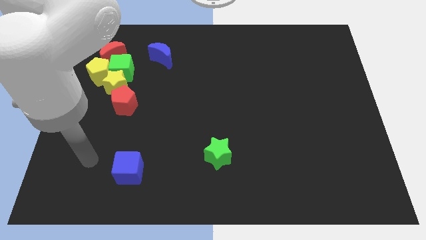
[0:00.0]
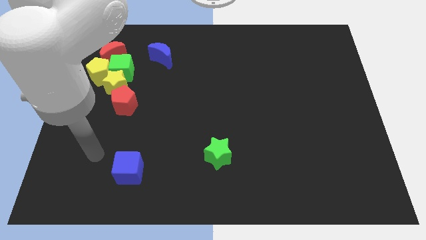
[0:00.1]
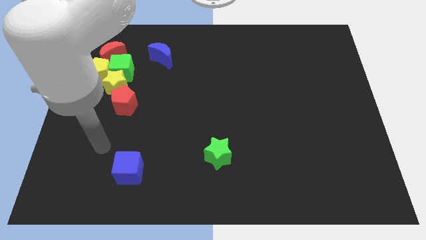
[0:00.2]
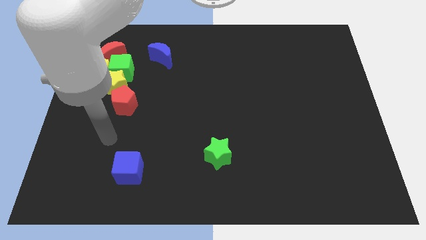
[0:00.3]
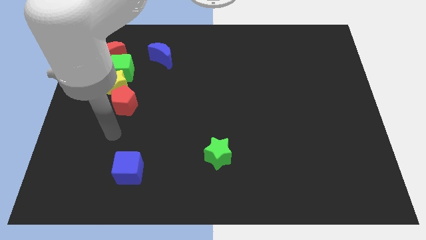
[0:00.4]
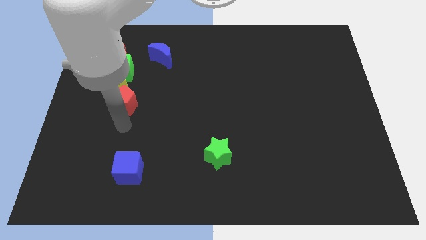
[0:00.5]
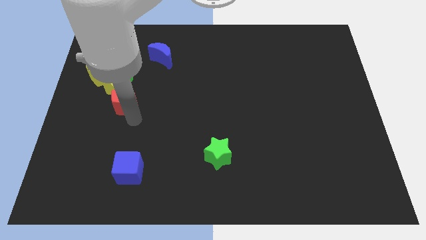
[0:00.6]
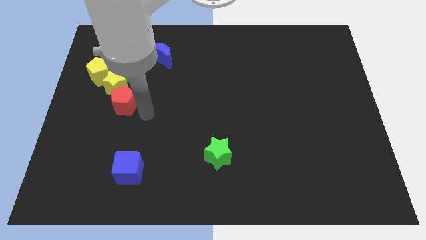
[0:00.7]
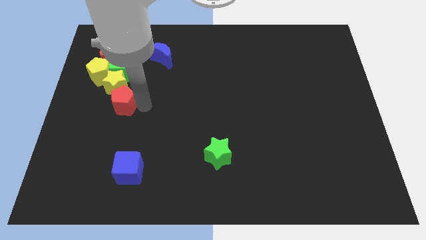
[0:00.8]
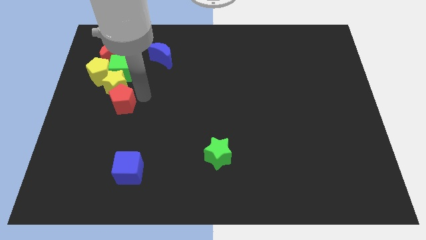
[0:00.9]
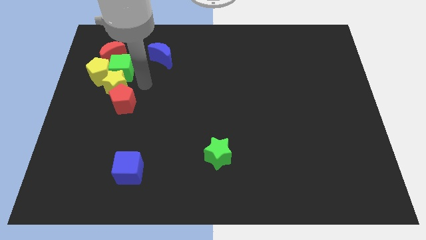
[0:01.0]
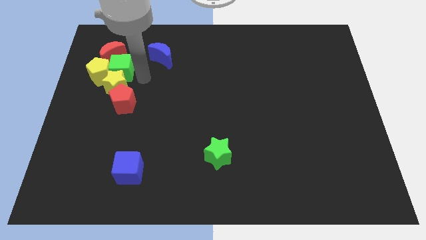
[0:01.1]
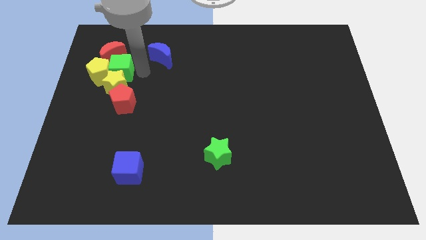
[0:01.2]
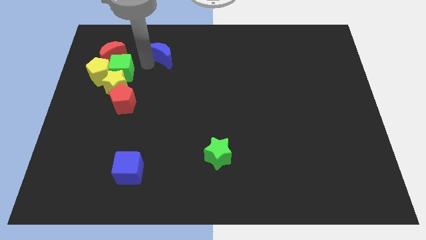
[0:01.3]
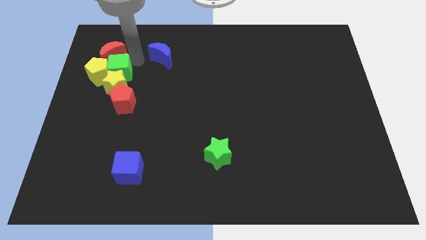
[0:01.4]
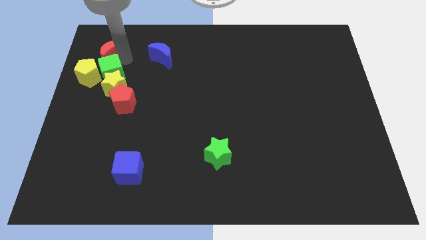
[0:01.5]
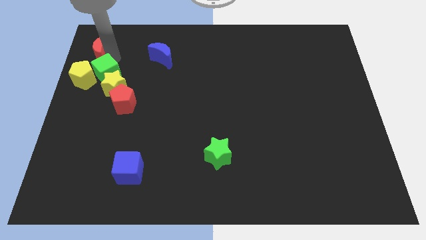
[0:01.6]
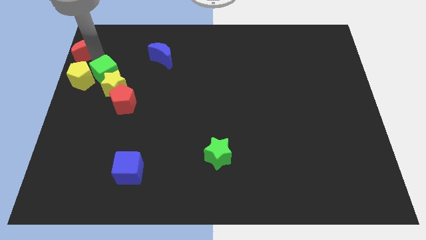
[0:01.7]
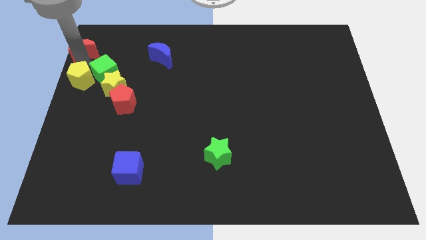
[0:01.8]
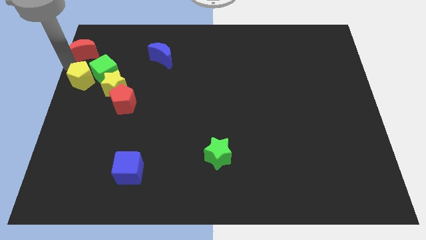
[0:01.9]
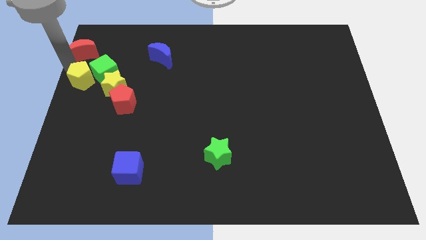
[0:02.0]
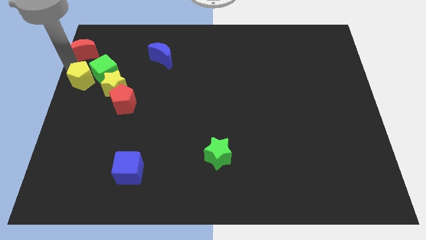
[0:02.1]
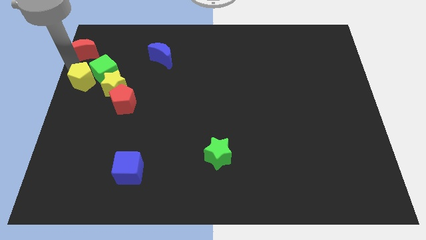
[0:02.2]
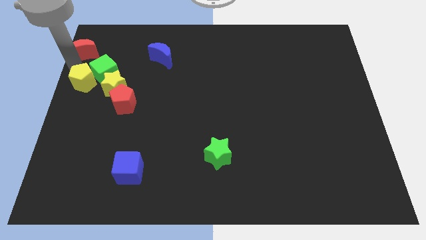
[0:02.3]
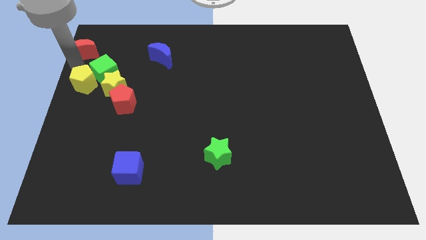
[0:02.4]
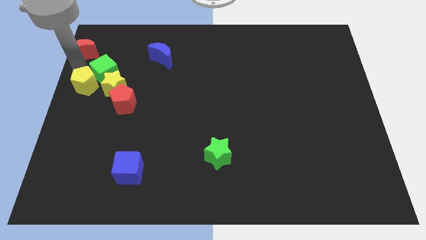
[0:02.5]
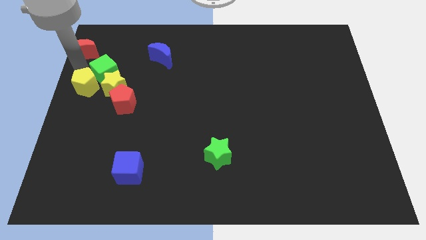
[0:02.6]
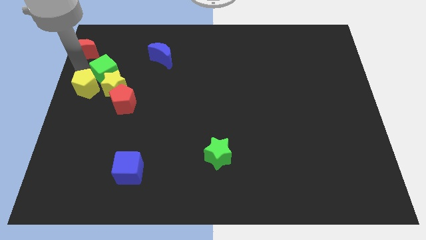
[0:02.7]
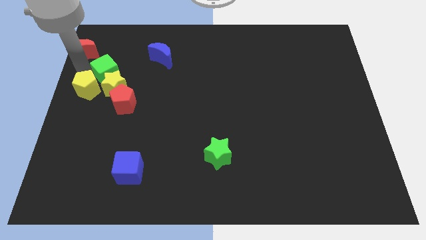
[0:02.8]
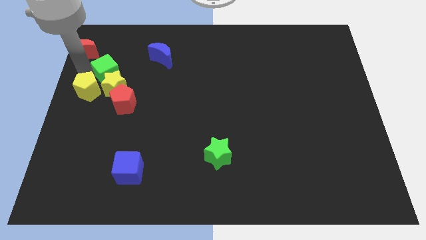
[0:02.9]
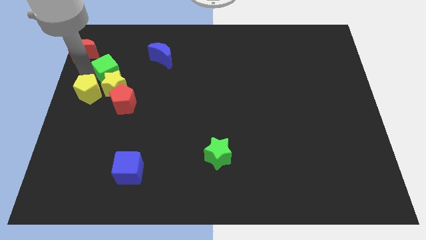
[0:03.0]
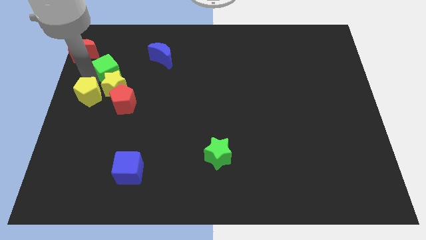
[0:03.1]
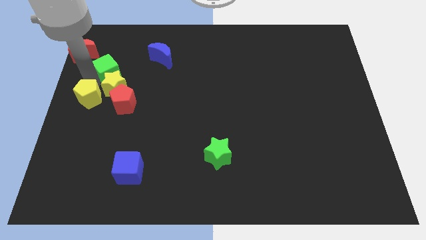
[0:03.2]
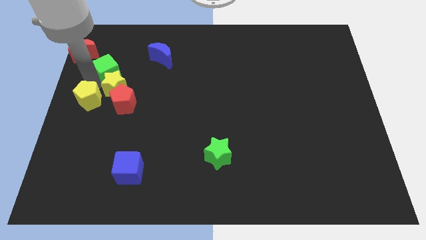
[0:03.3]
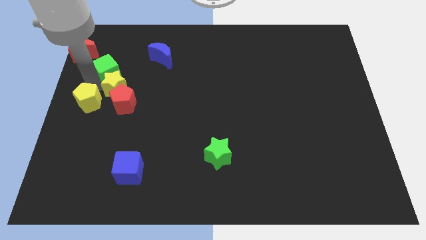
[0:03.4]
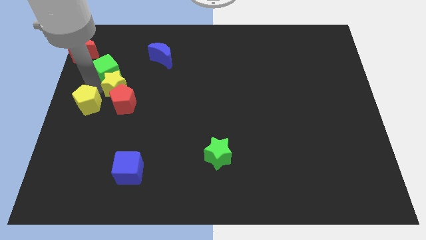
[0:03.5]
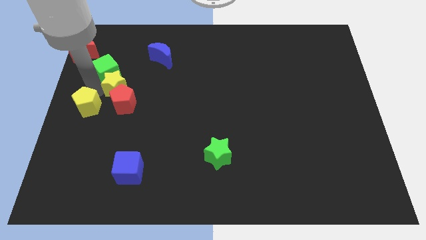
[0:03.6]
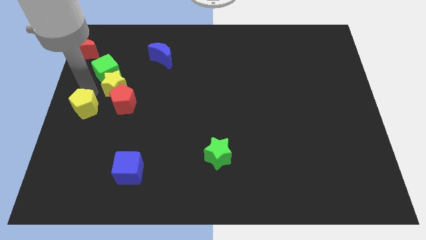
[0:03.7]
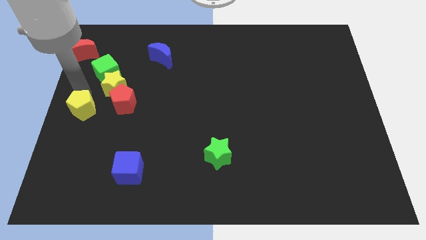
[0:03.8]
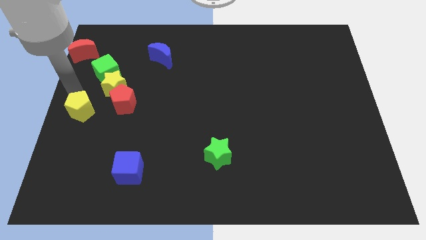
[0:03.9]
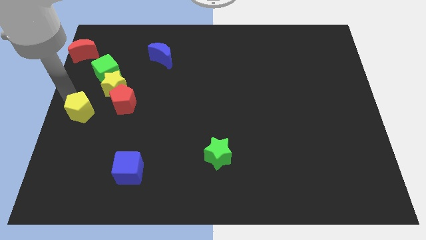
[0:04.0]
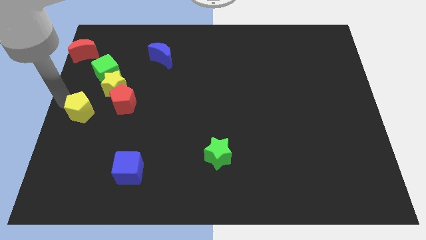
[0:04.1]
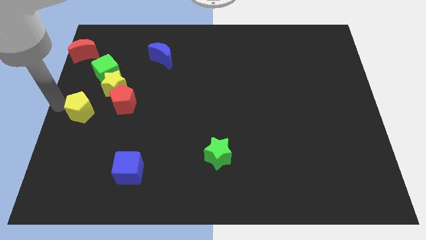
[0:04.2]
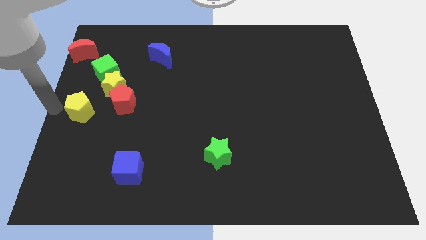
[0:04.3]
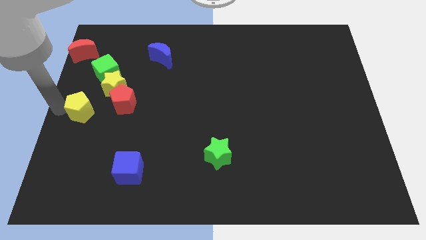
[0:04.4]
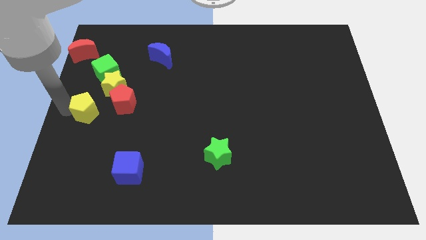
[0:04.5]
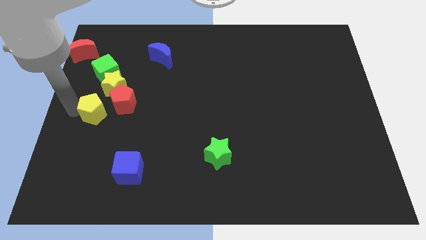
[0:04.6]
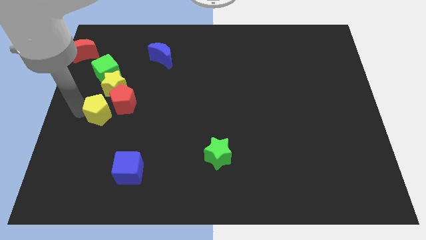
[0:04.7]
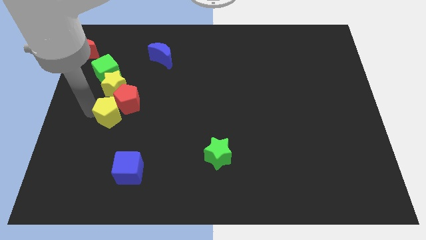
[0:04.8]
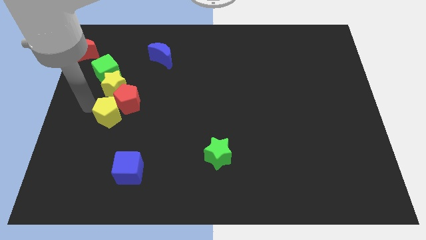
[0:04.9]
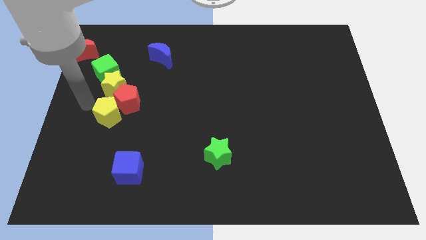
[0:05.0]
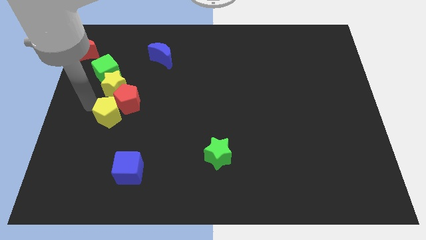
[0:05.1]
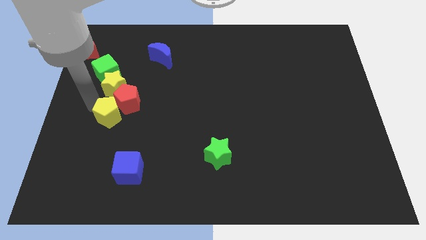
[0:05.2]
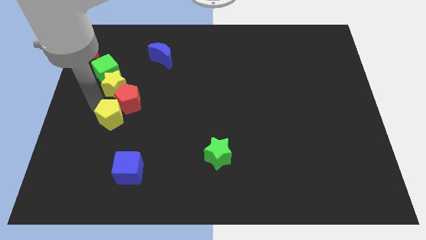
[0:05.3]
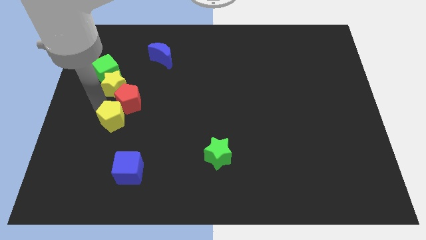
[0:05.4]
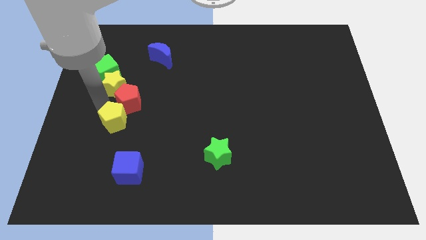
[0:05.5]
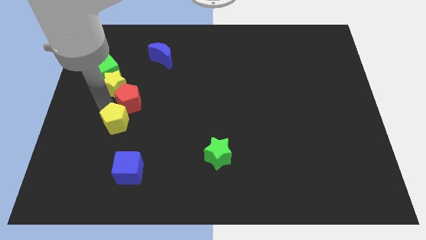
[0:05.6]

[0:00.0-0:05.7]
put the yellow pentagon to the top of the blue cube

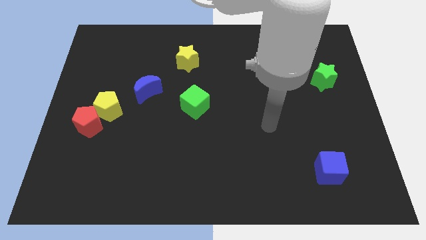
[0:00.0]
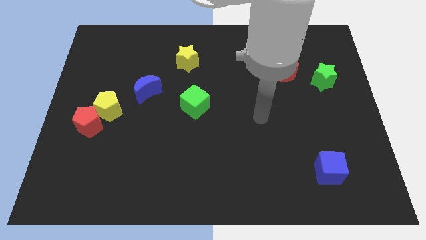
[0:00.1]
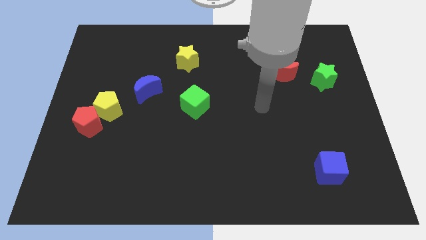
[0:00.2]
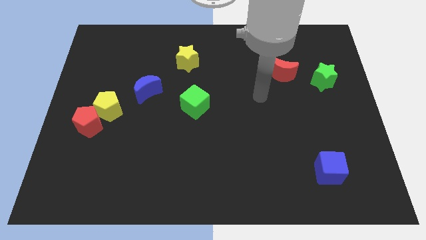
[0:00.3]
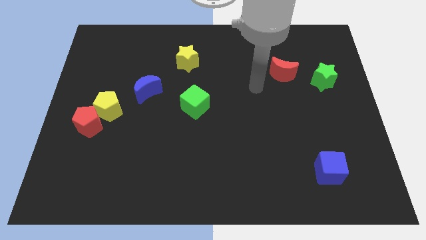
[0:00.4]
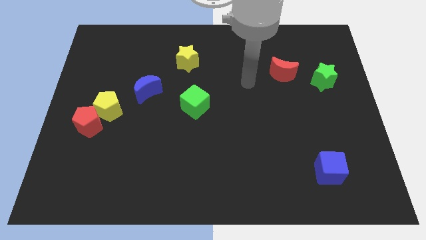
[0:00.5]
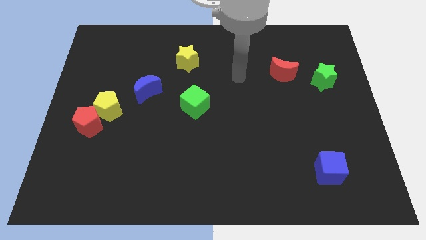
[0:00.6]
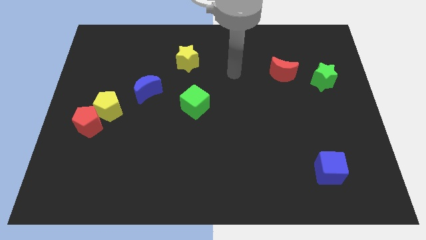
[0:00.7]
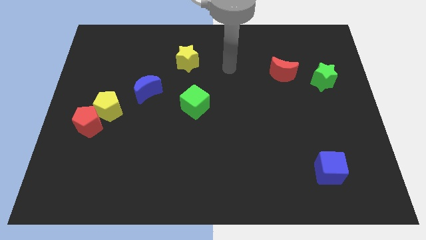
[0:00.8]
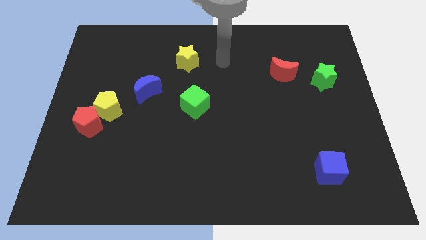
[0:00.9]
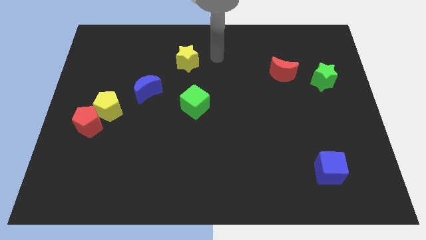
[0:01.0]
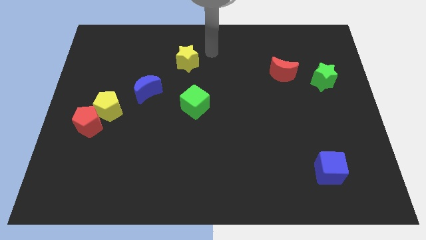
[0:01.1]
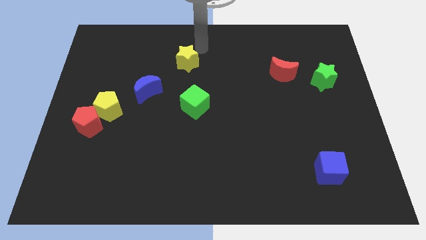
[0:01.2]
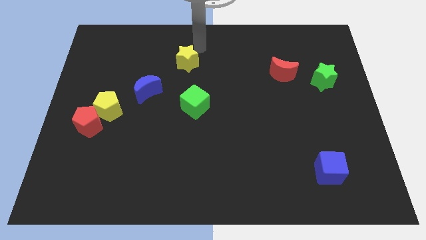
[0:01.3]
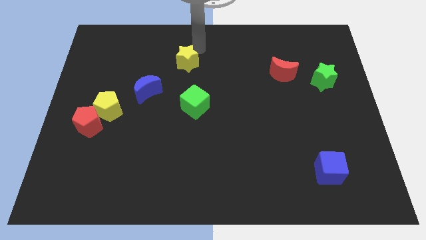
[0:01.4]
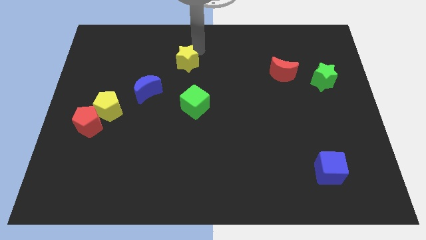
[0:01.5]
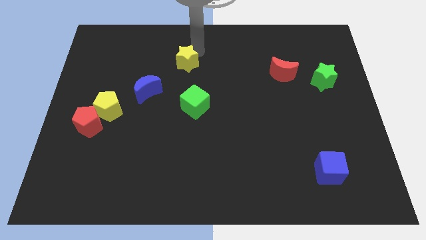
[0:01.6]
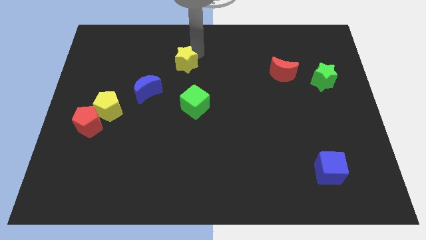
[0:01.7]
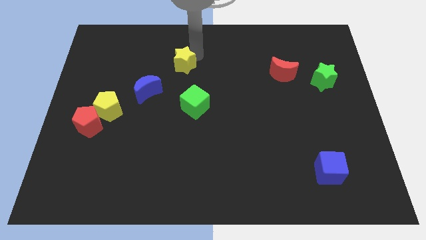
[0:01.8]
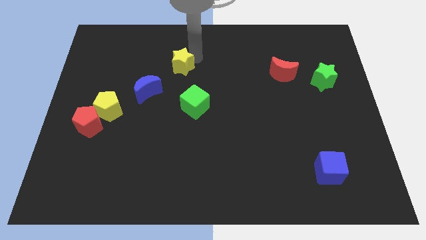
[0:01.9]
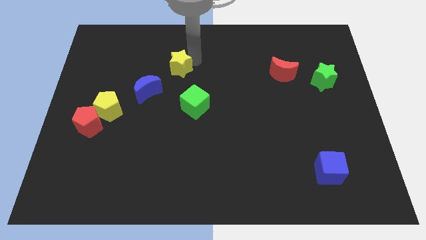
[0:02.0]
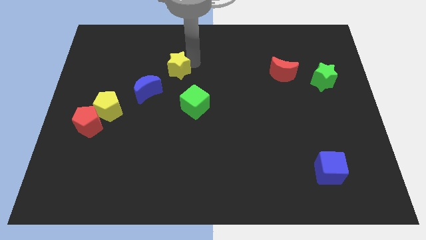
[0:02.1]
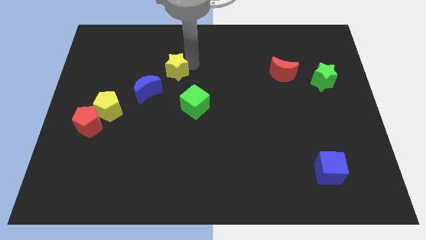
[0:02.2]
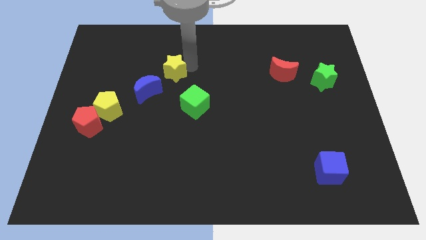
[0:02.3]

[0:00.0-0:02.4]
put the yellow star to the top left of the green cube
